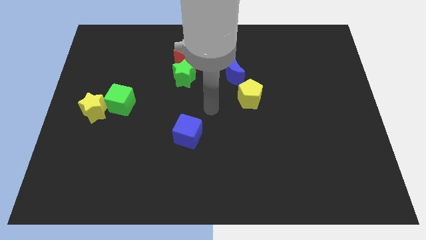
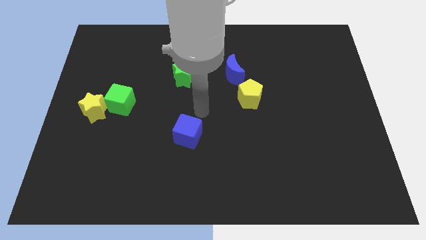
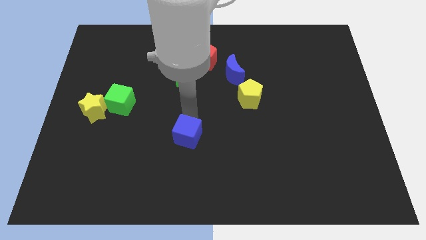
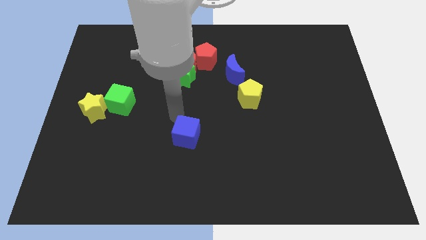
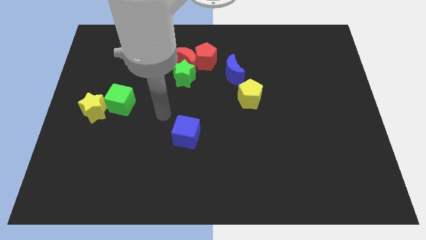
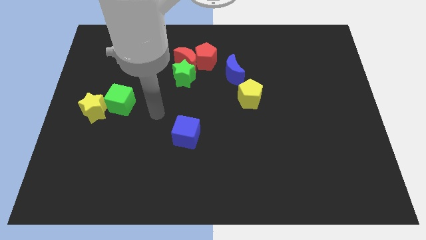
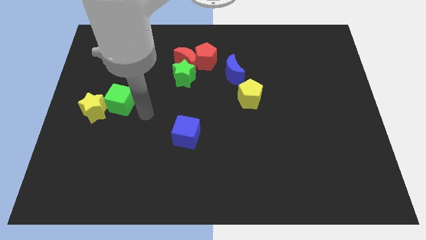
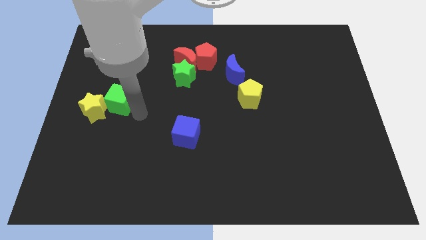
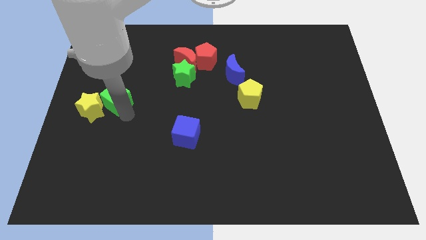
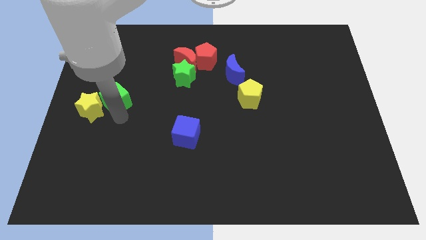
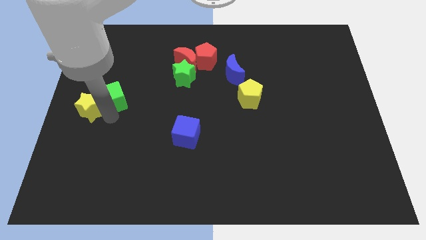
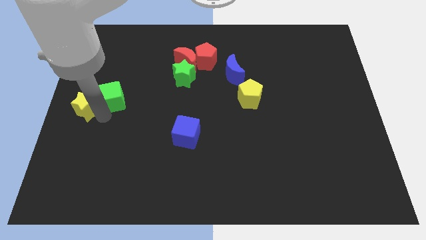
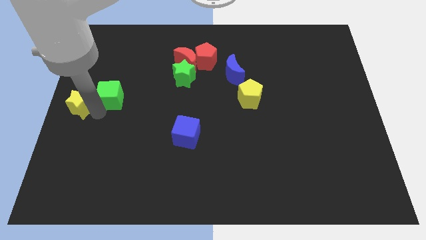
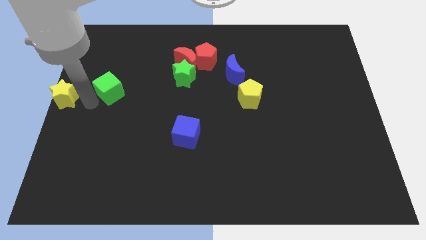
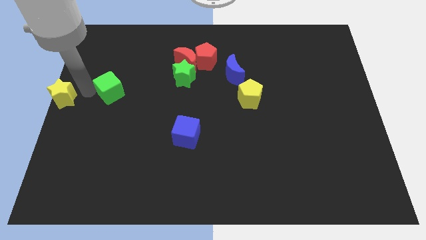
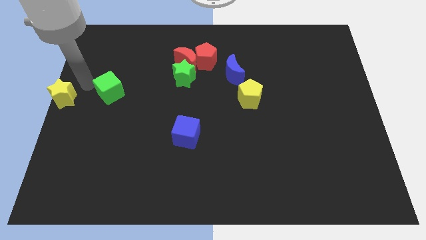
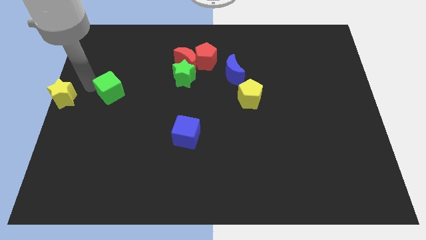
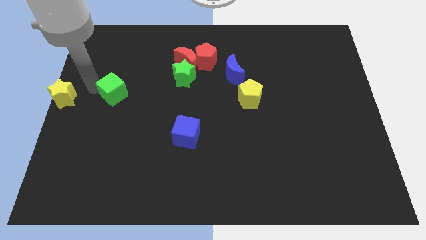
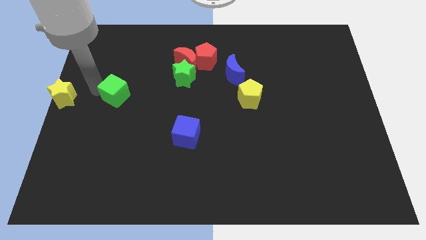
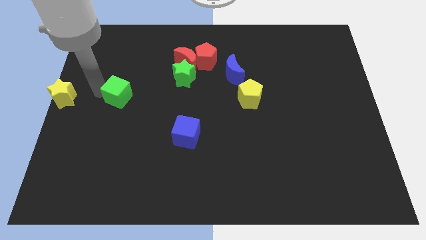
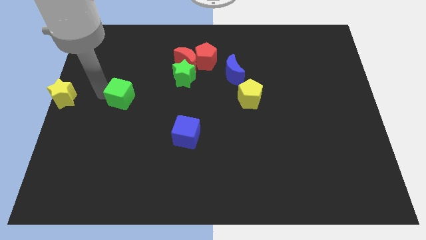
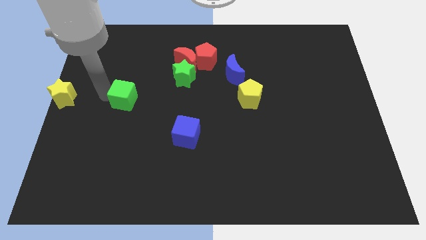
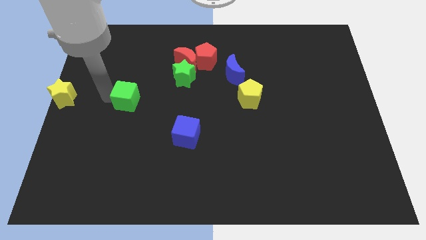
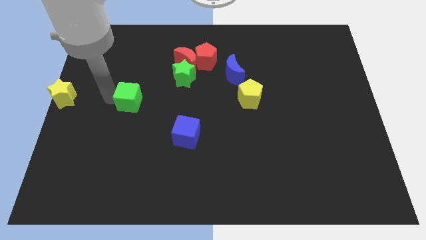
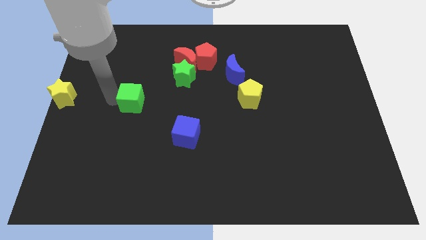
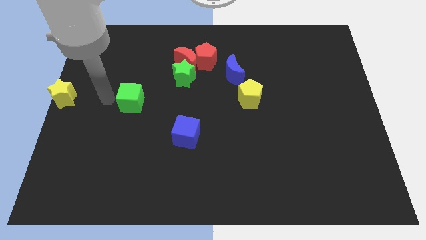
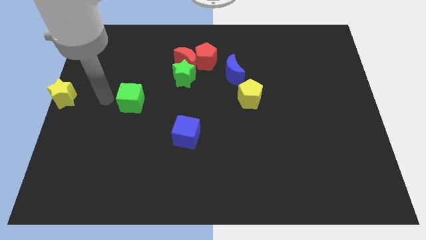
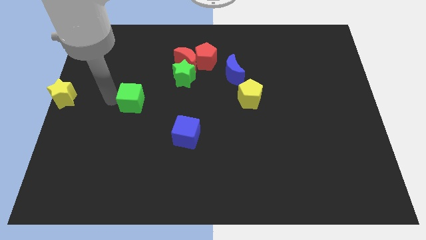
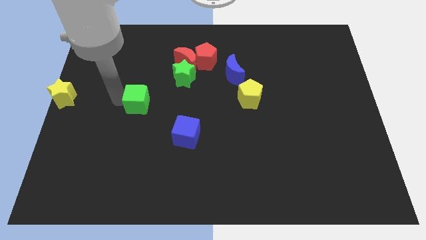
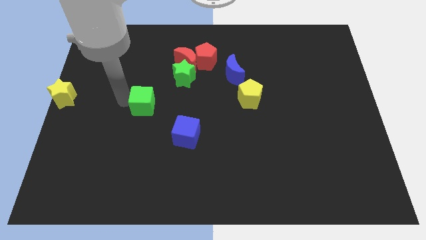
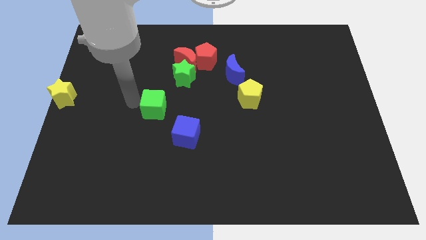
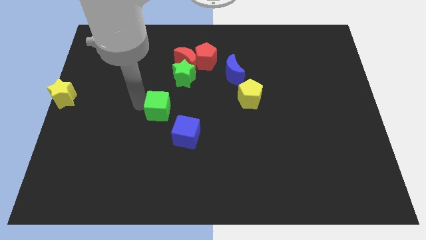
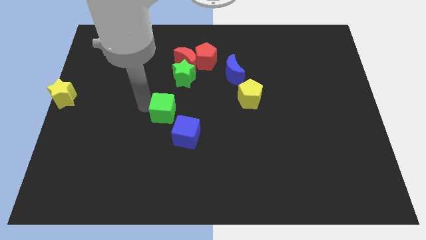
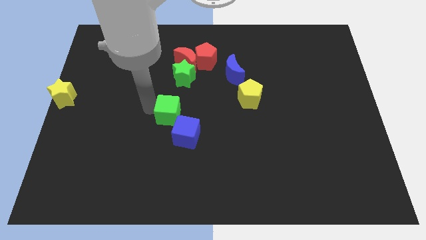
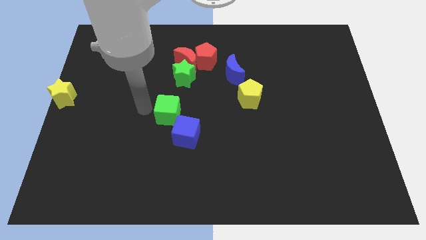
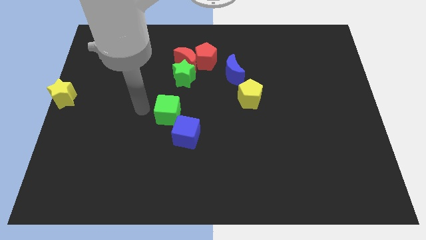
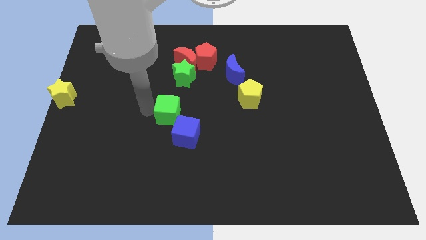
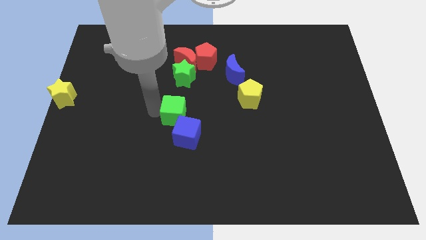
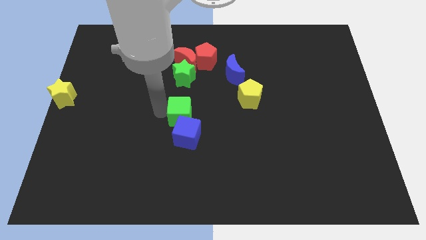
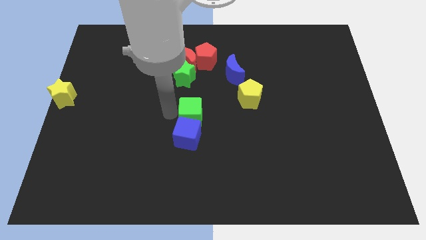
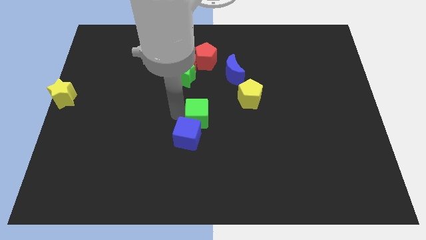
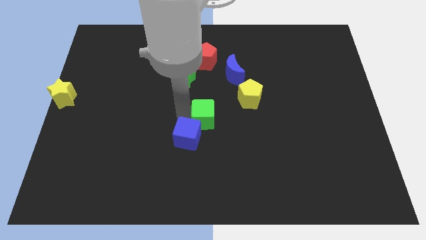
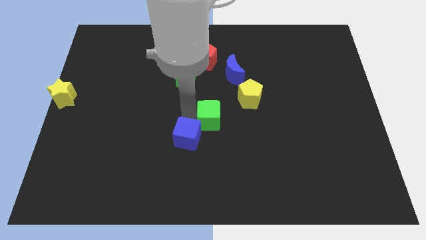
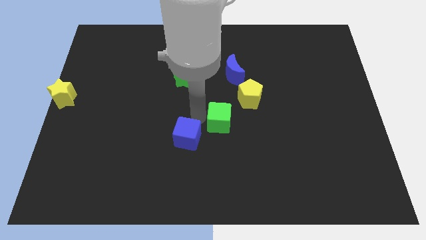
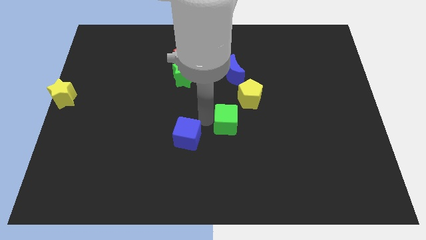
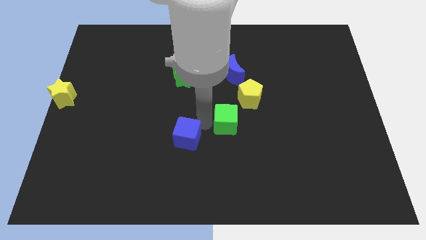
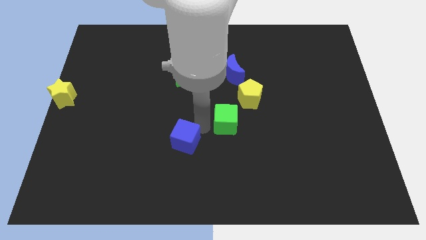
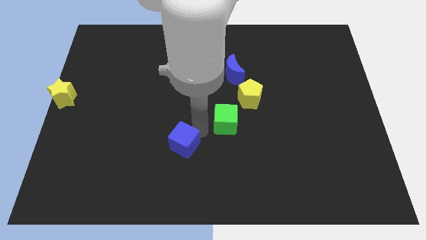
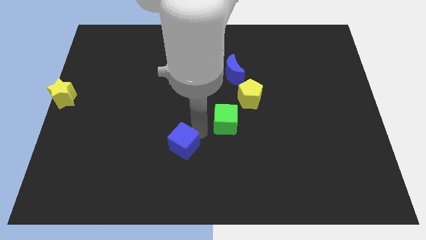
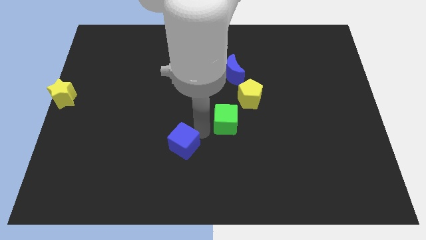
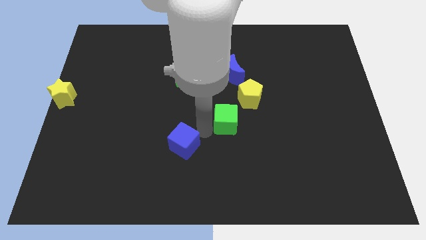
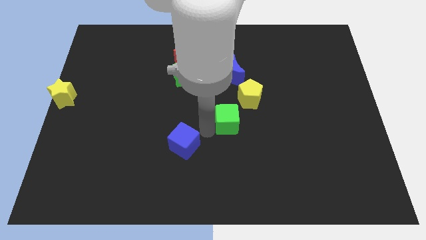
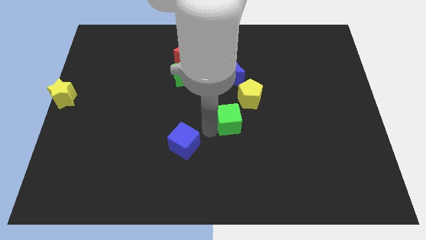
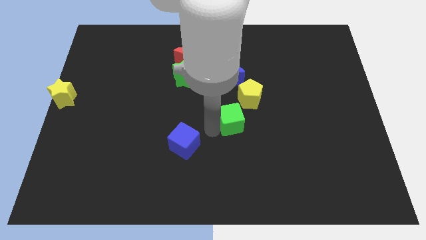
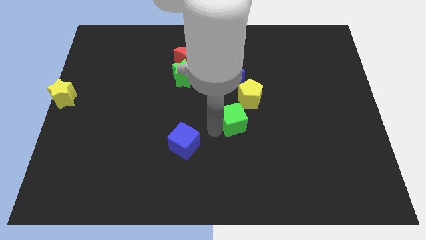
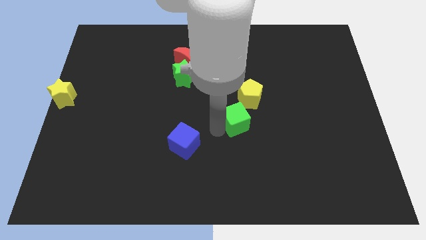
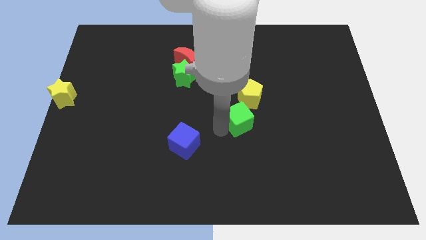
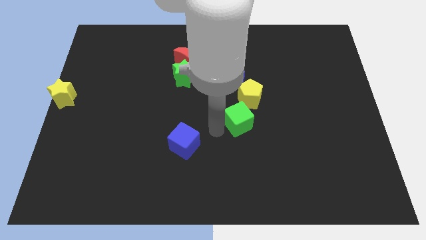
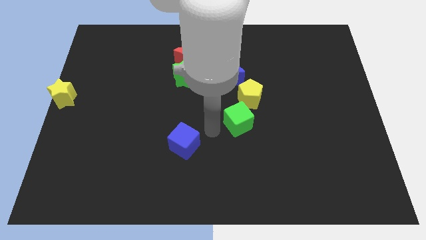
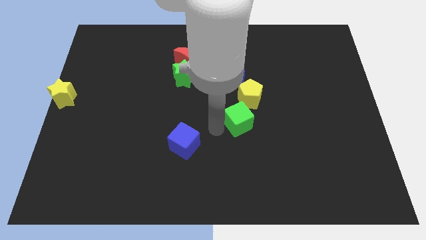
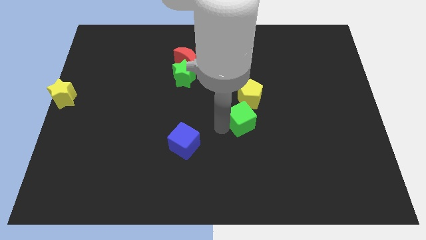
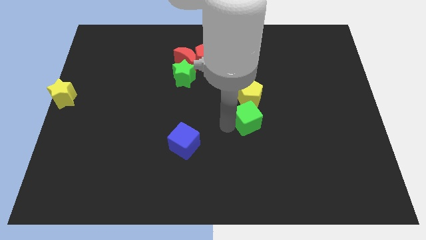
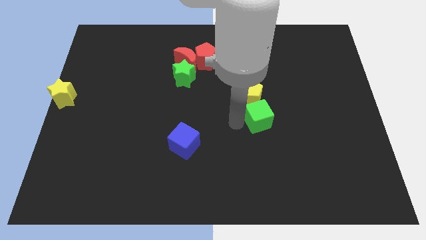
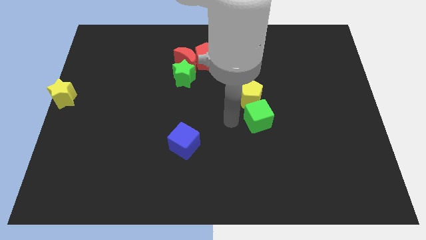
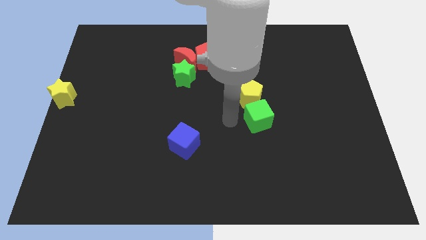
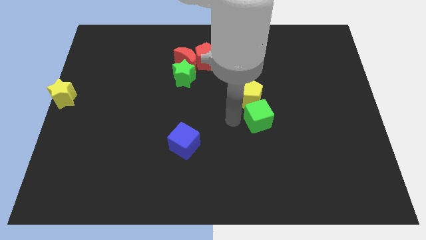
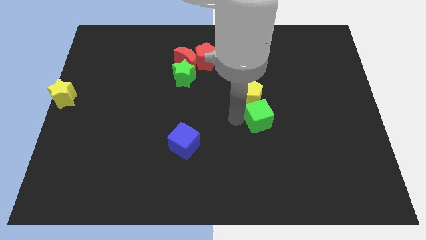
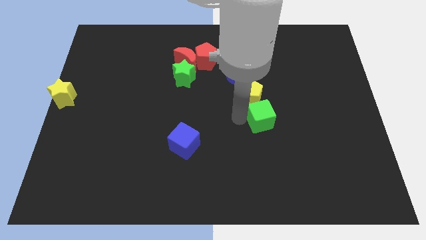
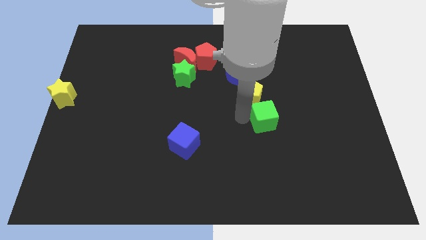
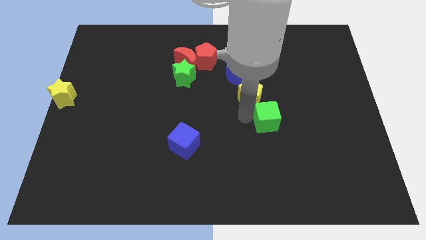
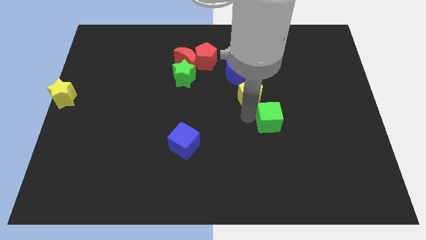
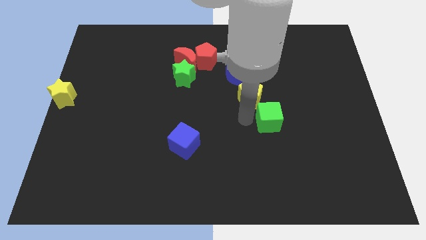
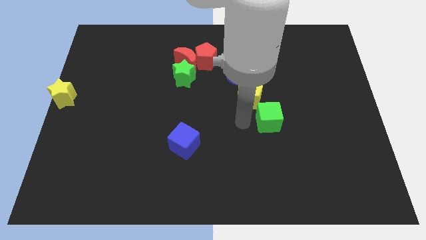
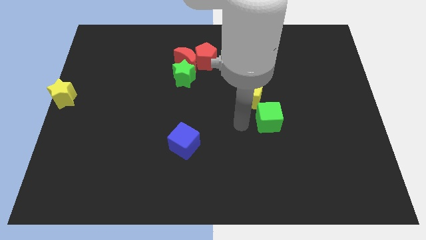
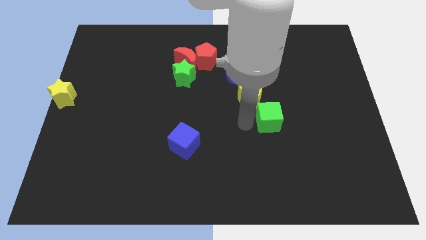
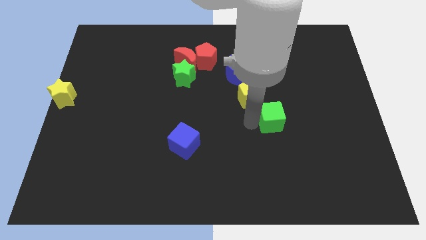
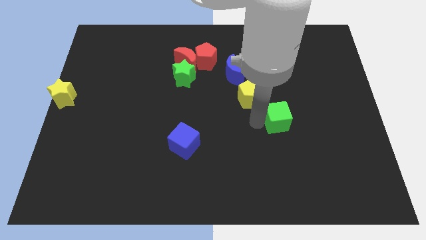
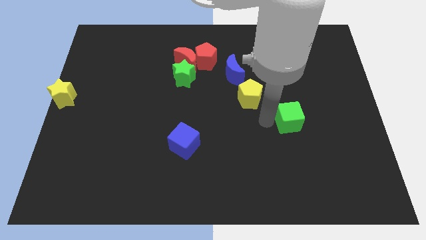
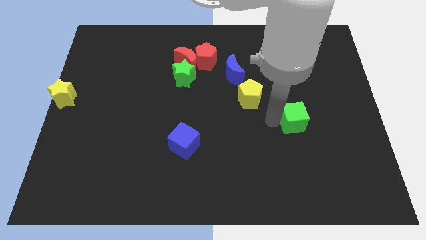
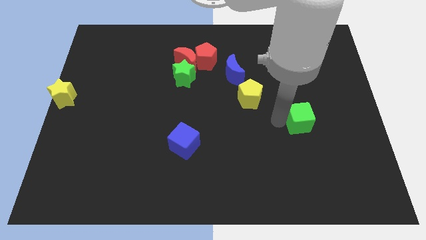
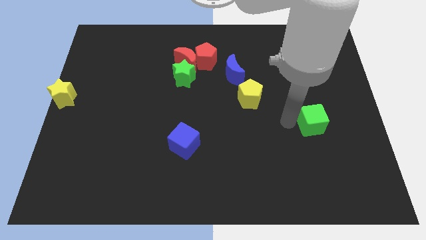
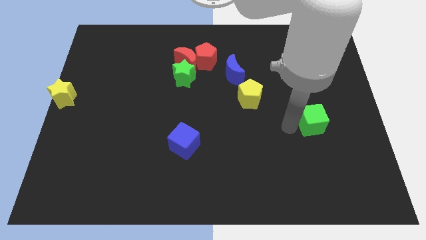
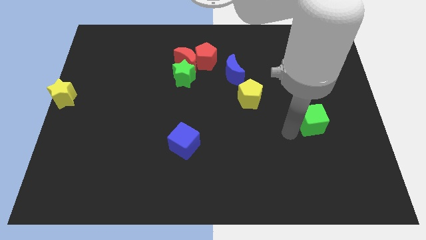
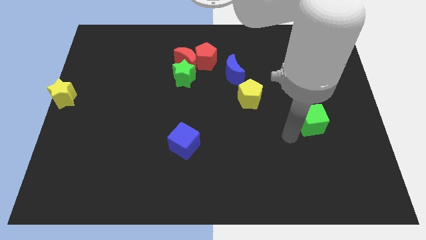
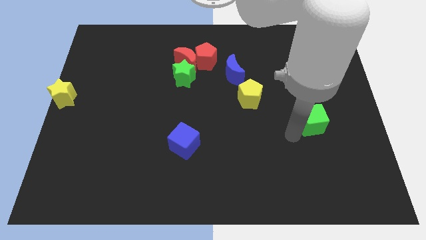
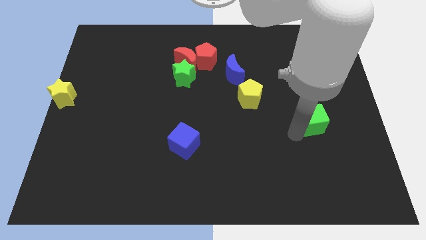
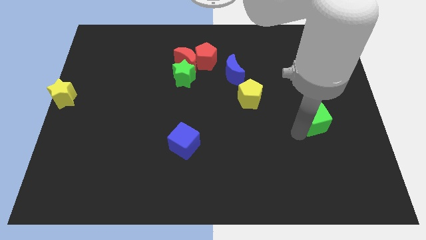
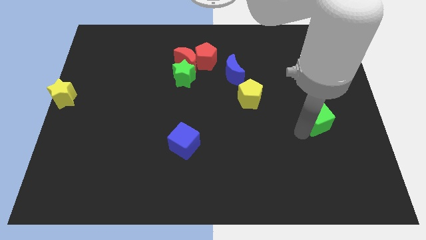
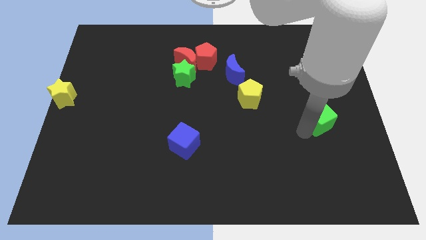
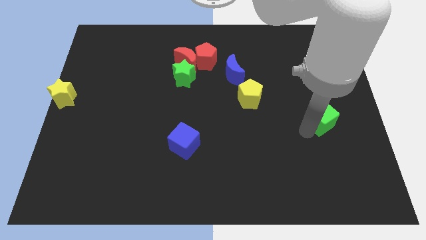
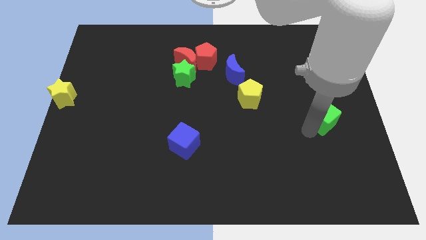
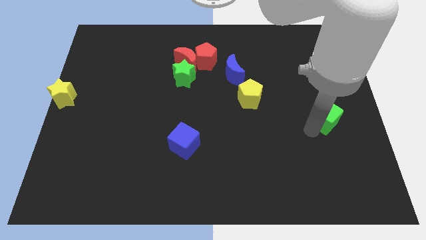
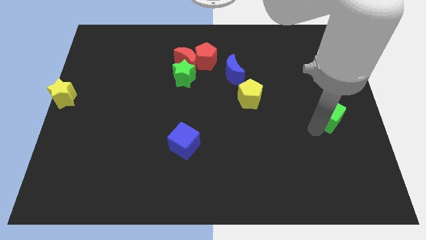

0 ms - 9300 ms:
push the green cube to the right side
